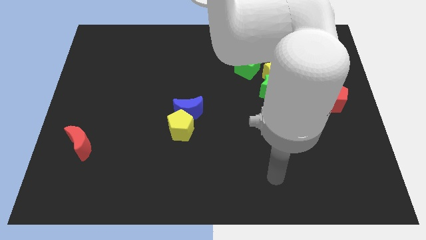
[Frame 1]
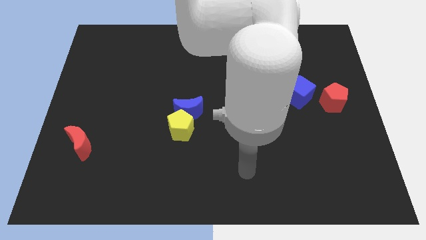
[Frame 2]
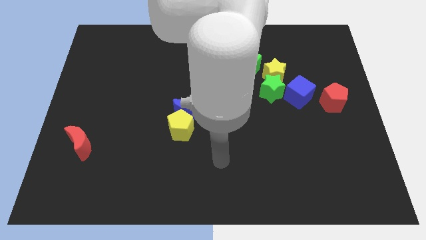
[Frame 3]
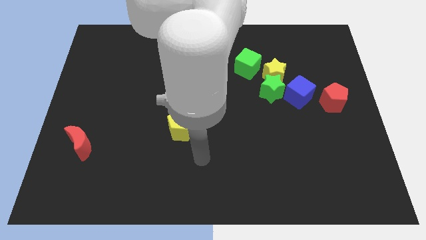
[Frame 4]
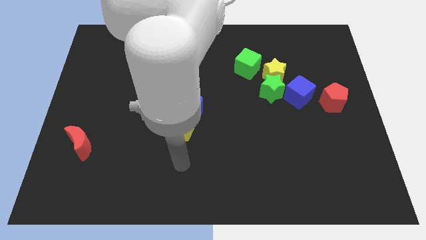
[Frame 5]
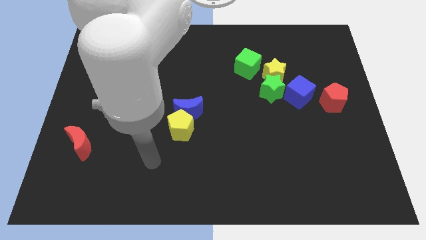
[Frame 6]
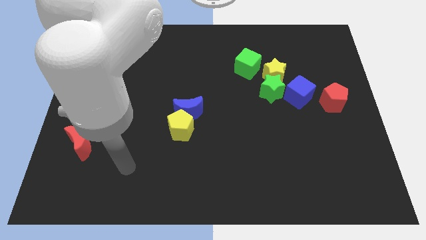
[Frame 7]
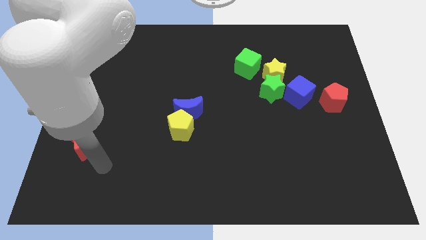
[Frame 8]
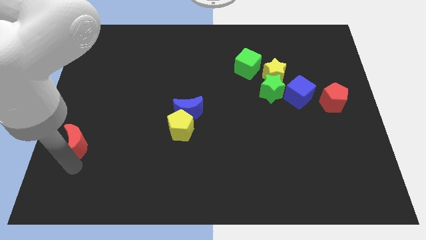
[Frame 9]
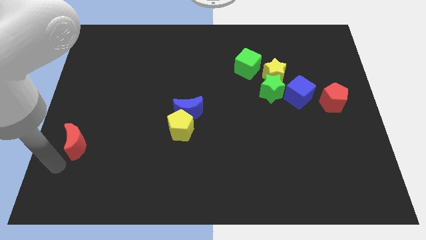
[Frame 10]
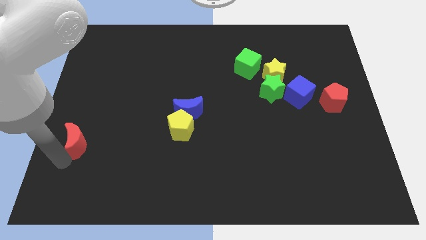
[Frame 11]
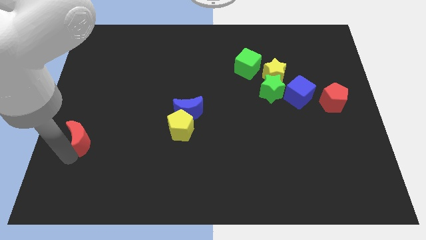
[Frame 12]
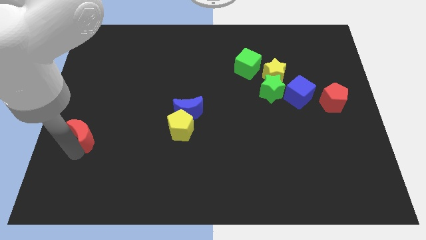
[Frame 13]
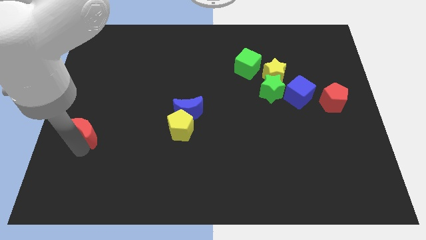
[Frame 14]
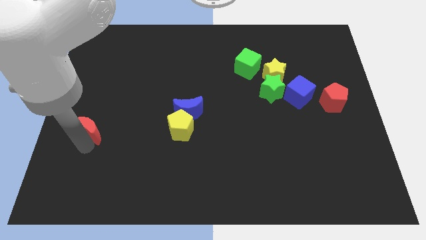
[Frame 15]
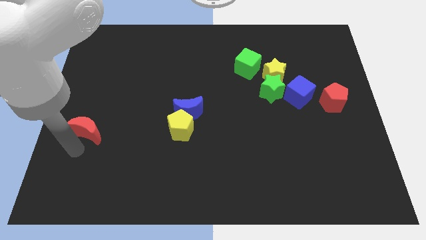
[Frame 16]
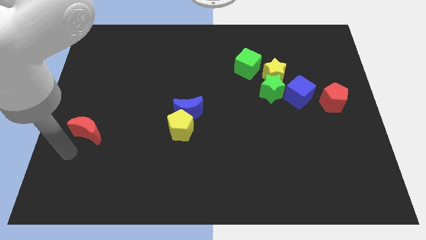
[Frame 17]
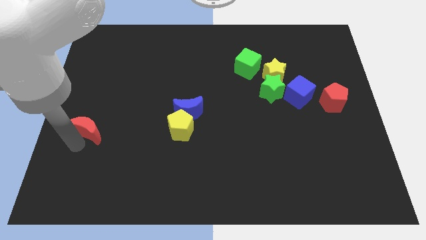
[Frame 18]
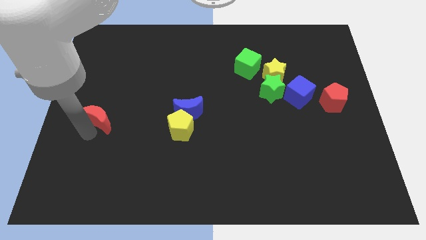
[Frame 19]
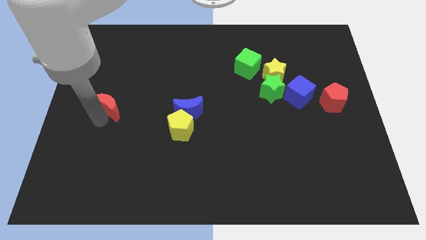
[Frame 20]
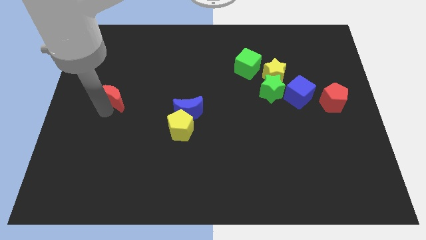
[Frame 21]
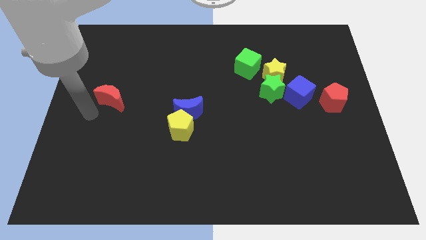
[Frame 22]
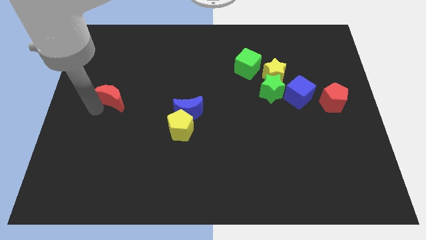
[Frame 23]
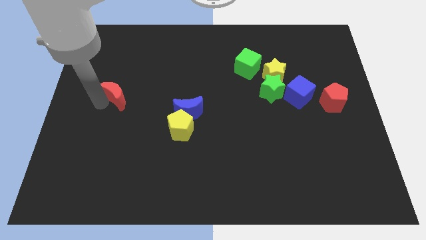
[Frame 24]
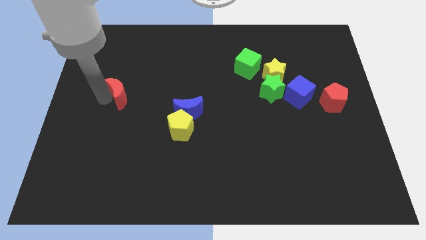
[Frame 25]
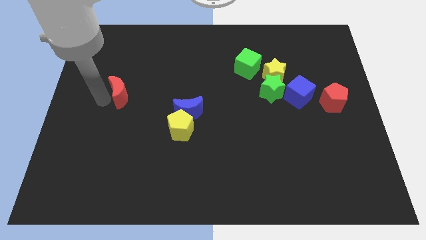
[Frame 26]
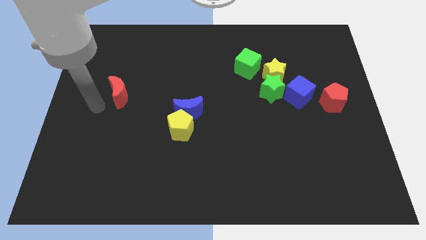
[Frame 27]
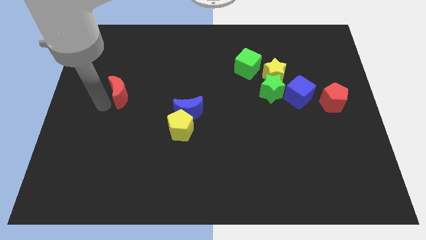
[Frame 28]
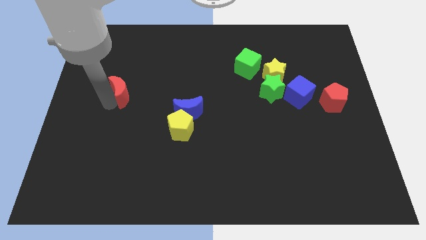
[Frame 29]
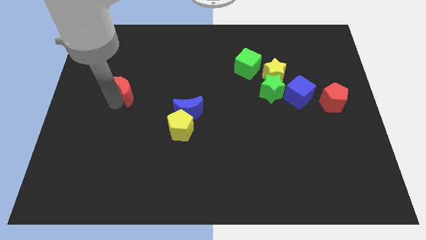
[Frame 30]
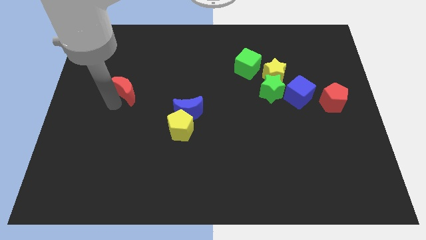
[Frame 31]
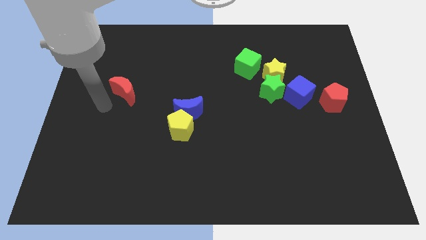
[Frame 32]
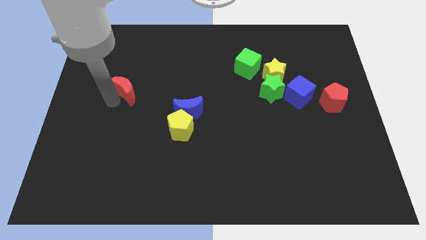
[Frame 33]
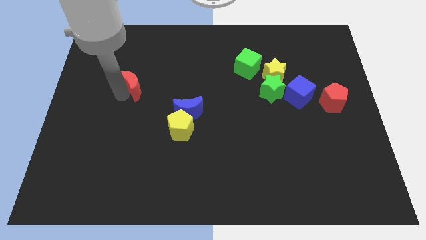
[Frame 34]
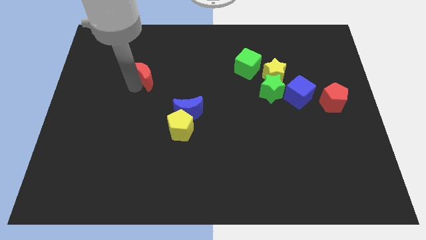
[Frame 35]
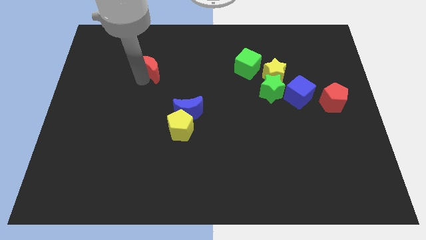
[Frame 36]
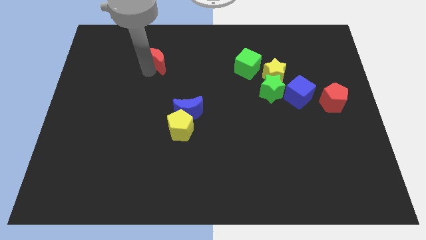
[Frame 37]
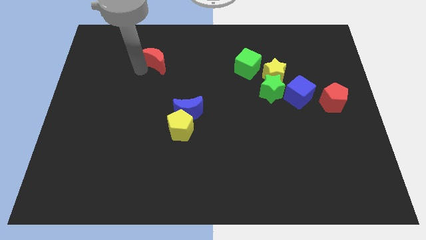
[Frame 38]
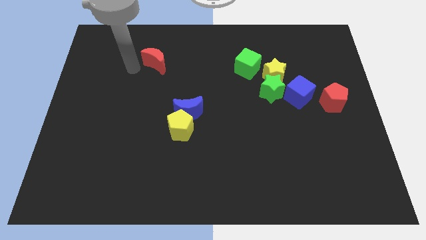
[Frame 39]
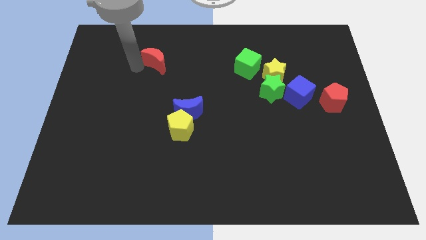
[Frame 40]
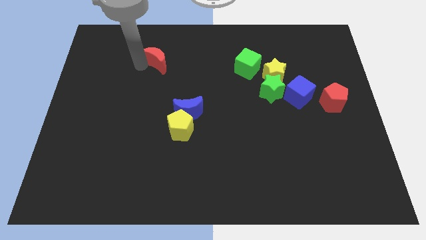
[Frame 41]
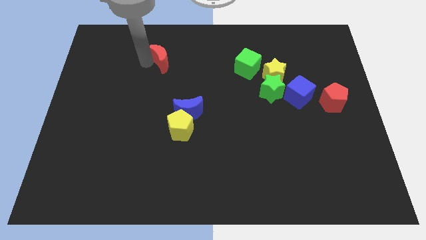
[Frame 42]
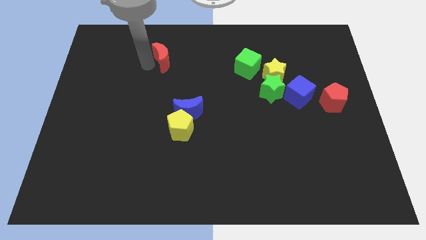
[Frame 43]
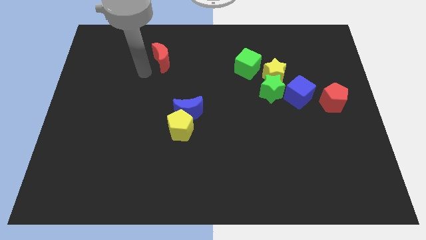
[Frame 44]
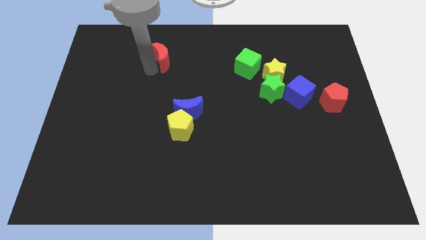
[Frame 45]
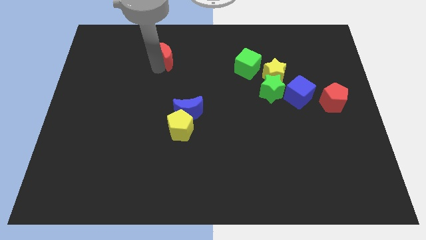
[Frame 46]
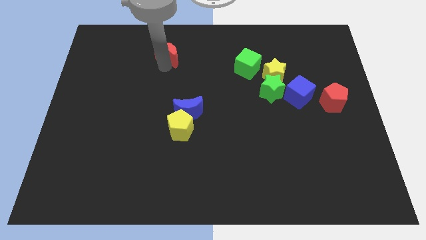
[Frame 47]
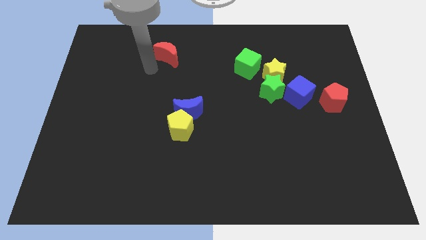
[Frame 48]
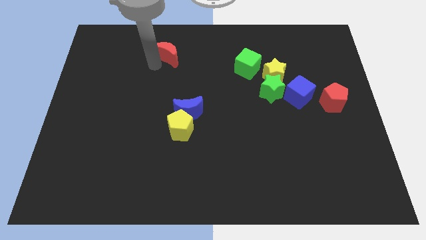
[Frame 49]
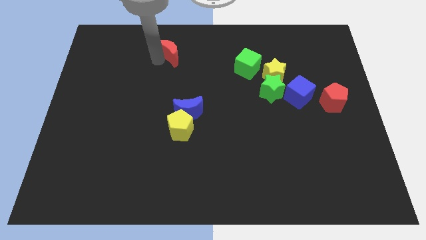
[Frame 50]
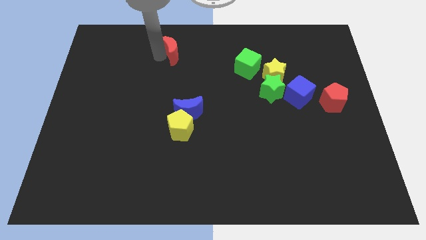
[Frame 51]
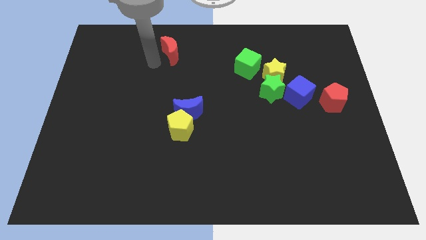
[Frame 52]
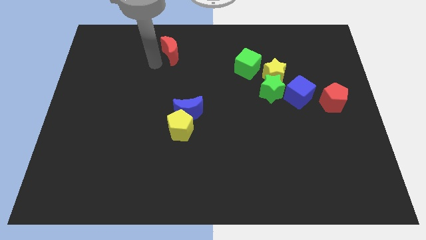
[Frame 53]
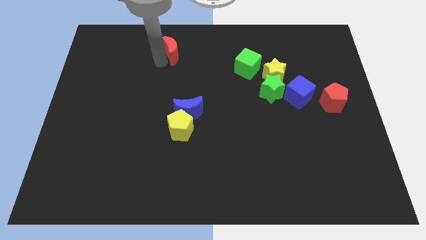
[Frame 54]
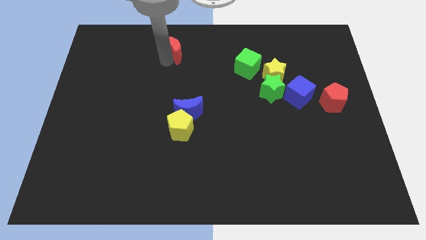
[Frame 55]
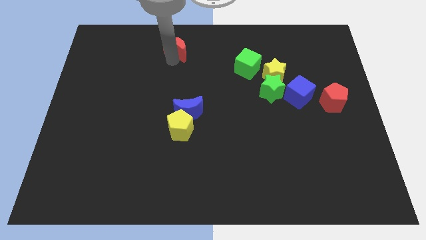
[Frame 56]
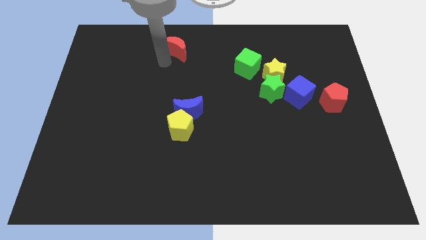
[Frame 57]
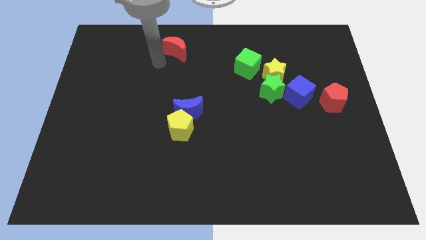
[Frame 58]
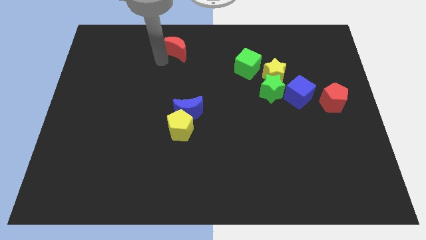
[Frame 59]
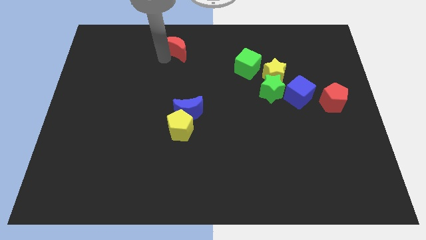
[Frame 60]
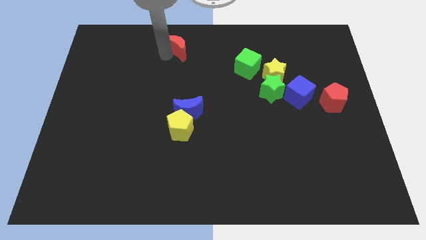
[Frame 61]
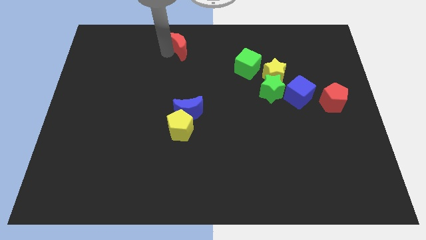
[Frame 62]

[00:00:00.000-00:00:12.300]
push the red moon to the towards your base

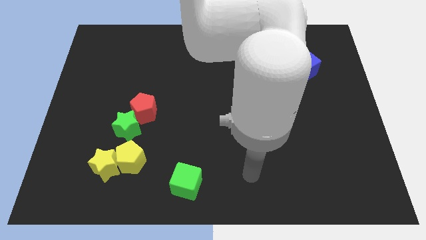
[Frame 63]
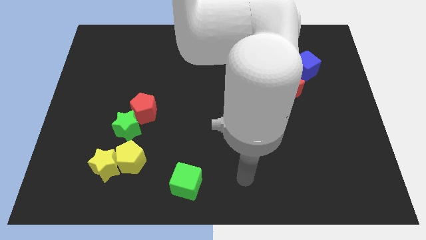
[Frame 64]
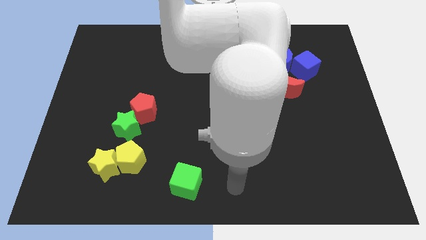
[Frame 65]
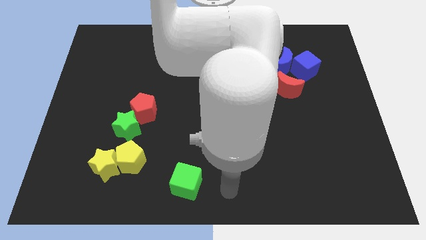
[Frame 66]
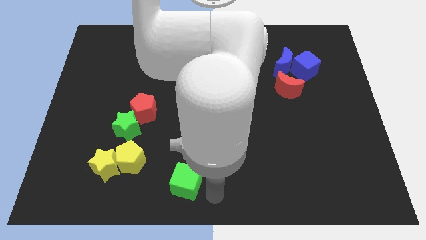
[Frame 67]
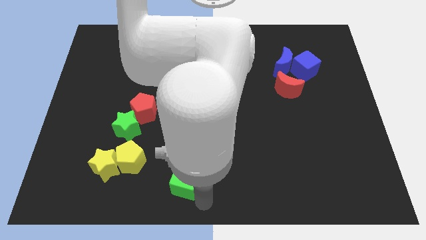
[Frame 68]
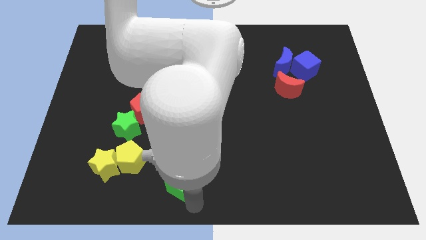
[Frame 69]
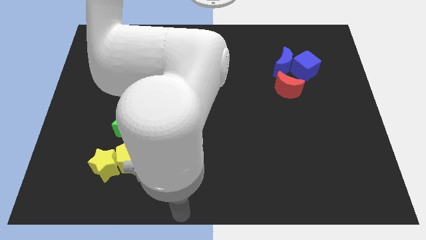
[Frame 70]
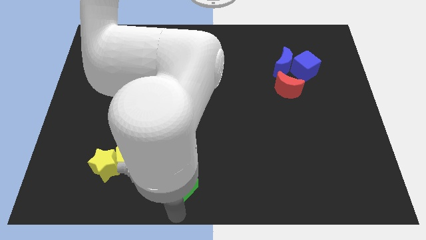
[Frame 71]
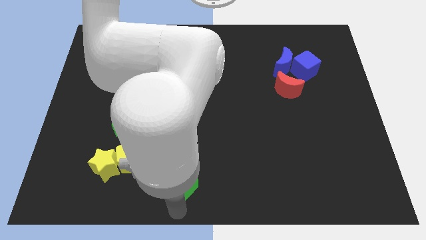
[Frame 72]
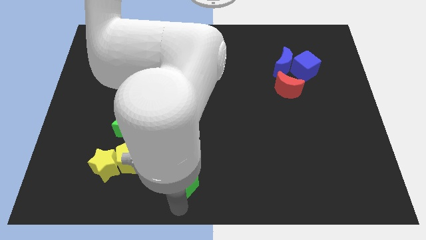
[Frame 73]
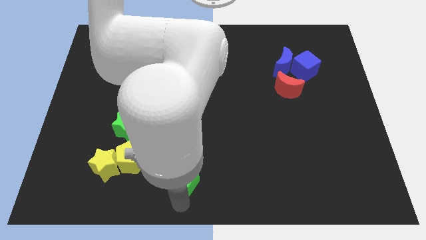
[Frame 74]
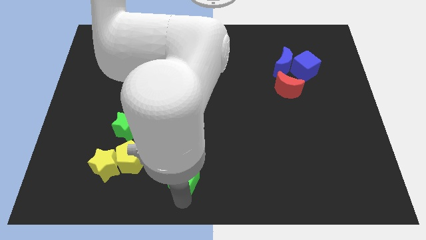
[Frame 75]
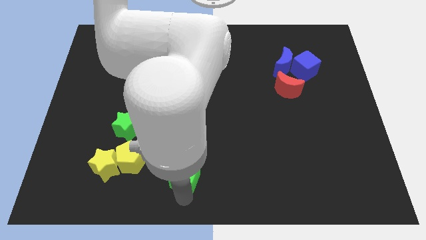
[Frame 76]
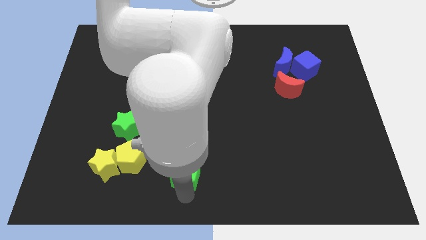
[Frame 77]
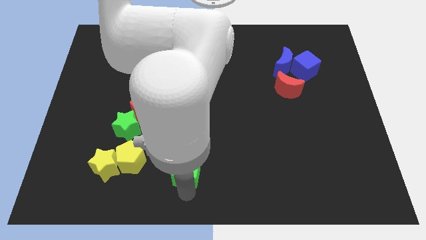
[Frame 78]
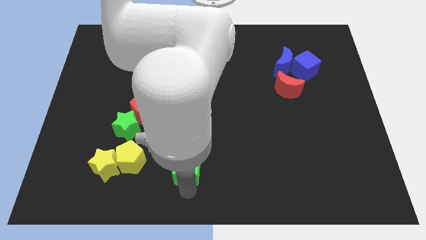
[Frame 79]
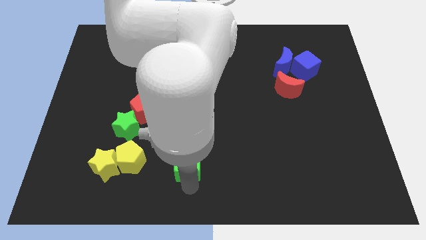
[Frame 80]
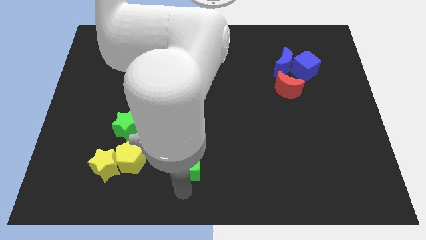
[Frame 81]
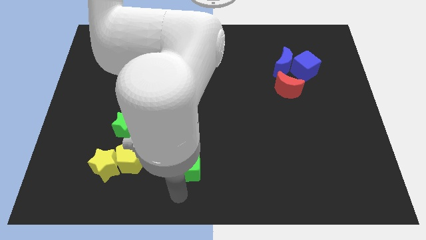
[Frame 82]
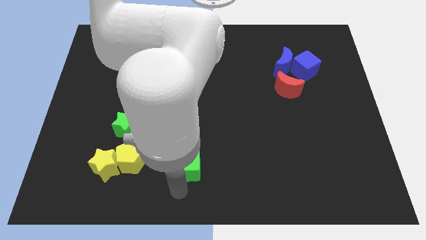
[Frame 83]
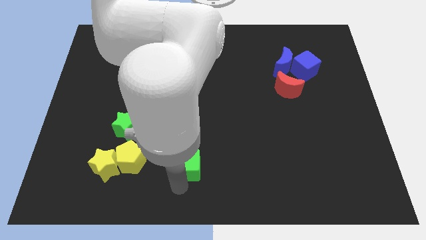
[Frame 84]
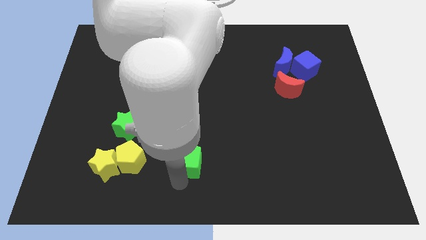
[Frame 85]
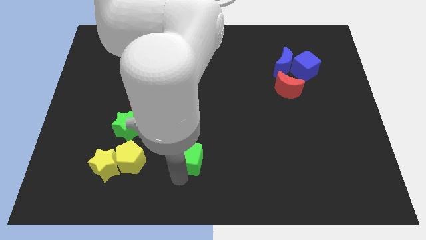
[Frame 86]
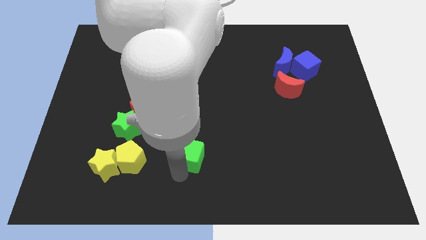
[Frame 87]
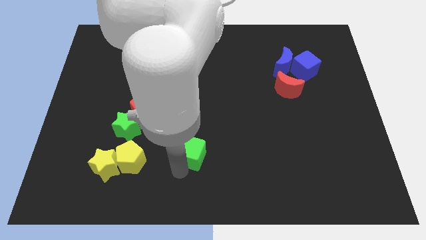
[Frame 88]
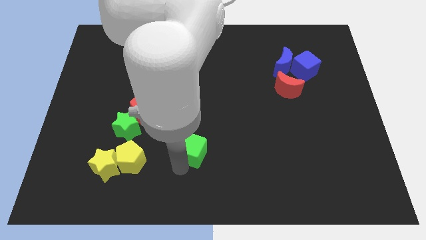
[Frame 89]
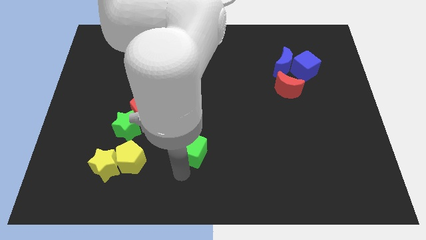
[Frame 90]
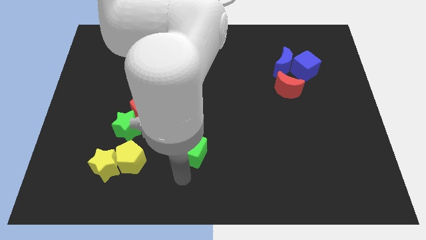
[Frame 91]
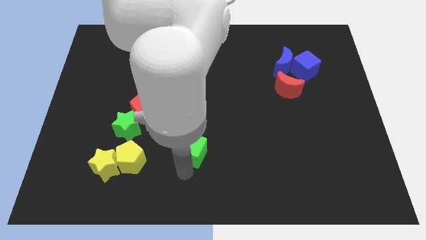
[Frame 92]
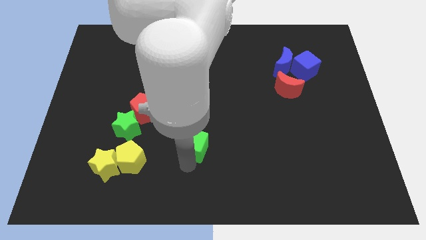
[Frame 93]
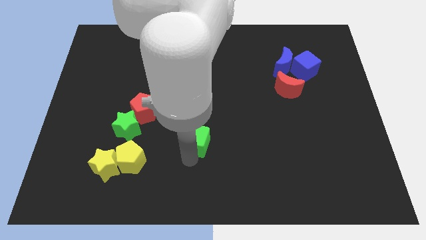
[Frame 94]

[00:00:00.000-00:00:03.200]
put the green cube to the center
